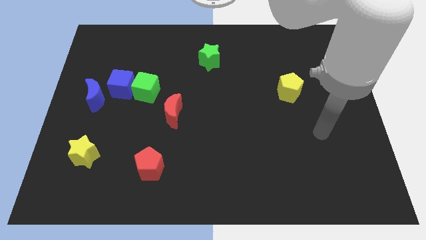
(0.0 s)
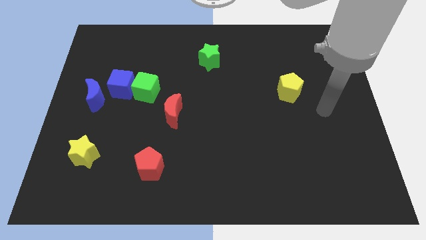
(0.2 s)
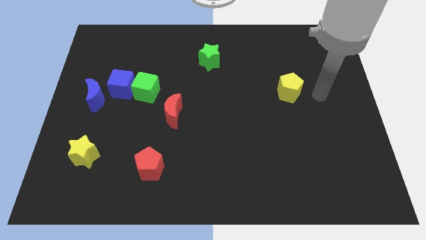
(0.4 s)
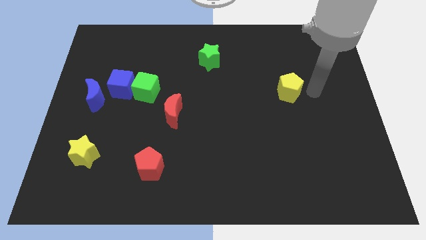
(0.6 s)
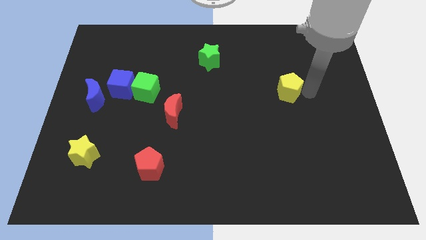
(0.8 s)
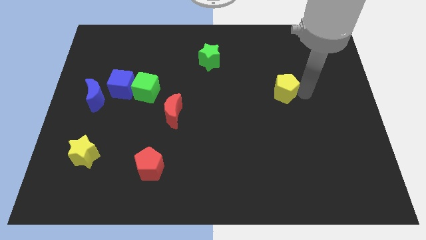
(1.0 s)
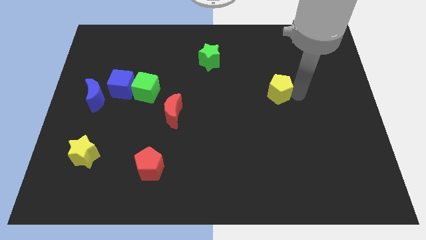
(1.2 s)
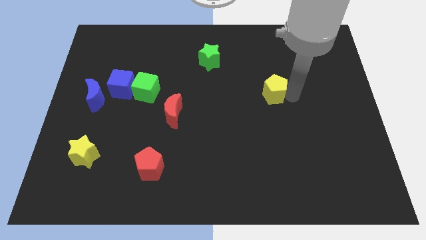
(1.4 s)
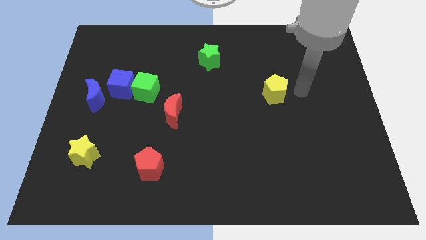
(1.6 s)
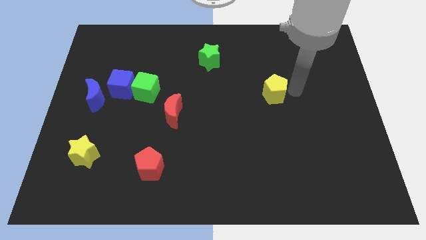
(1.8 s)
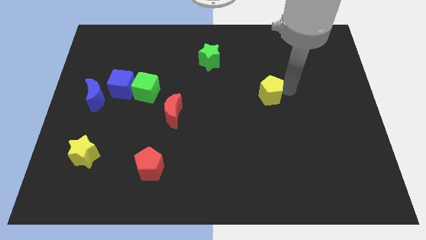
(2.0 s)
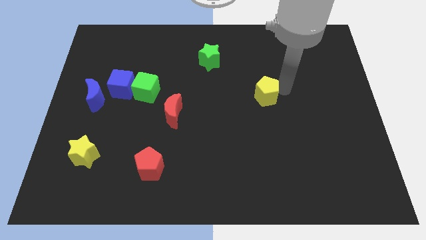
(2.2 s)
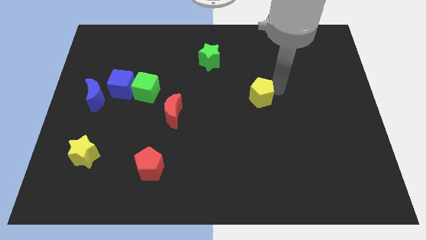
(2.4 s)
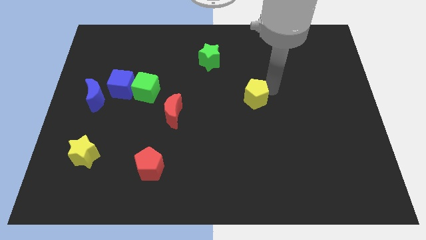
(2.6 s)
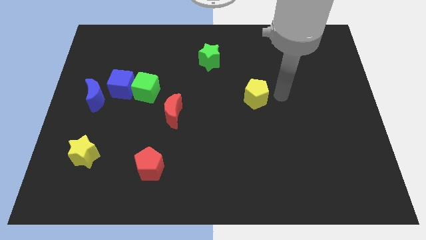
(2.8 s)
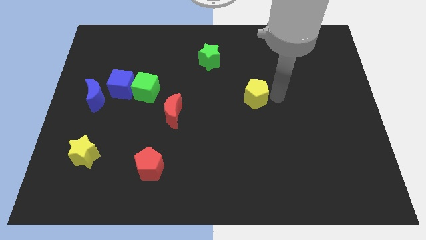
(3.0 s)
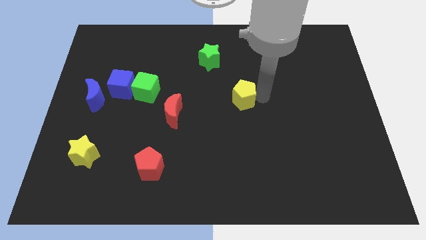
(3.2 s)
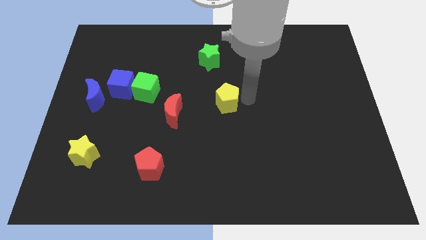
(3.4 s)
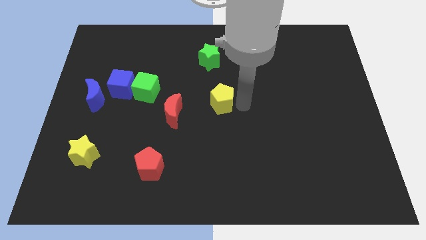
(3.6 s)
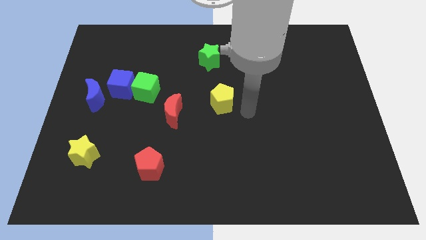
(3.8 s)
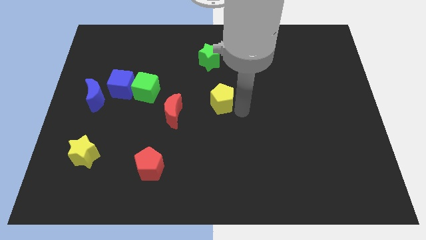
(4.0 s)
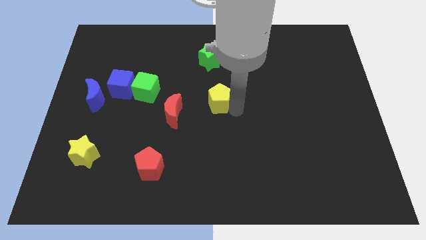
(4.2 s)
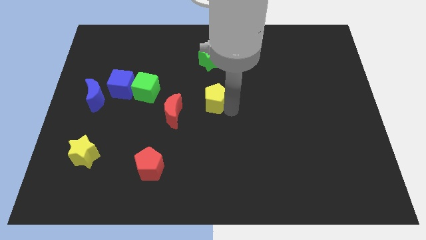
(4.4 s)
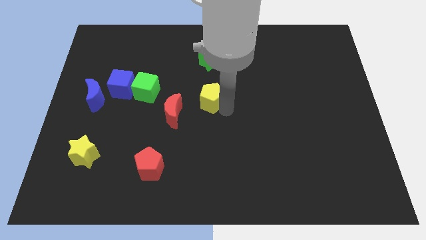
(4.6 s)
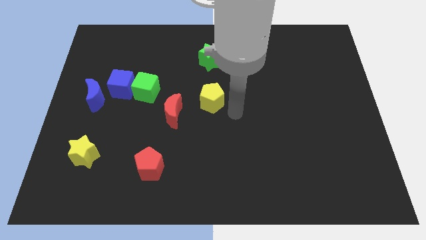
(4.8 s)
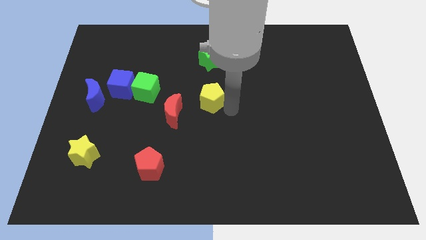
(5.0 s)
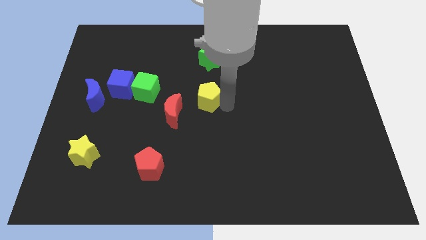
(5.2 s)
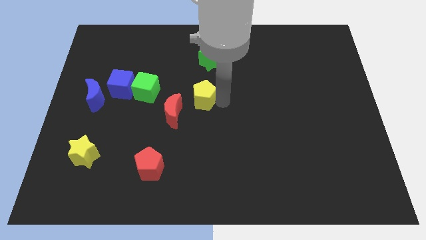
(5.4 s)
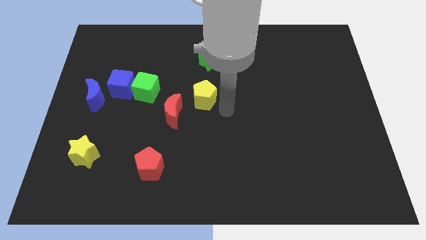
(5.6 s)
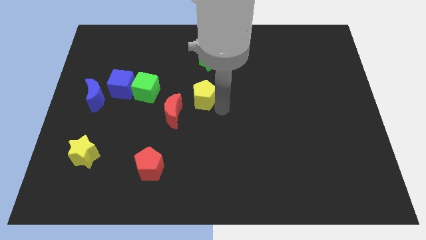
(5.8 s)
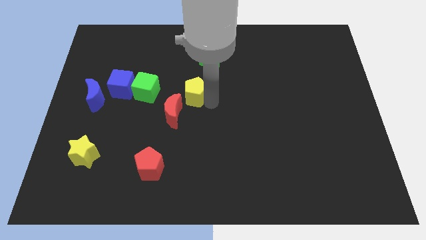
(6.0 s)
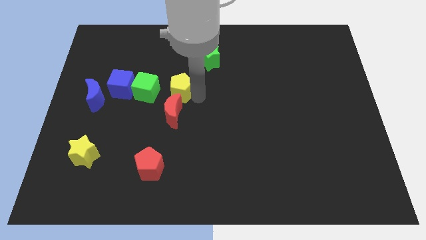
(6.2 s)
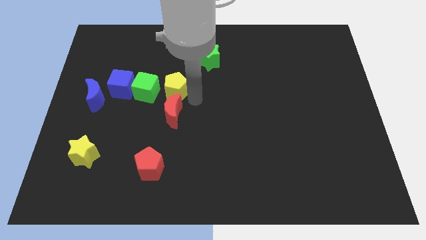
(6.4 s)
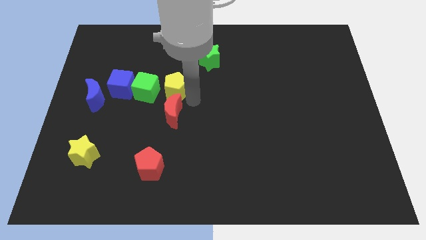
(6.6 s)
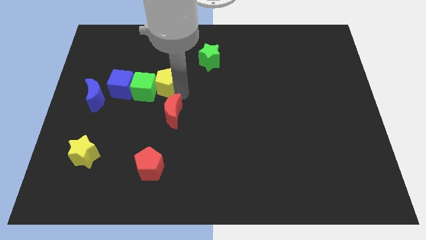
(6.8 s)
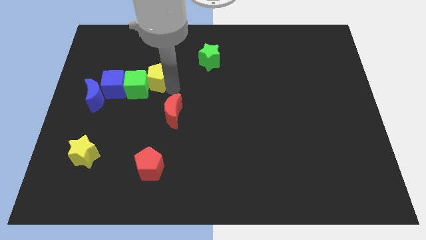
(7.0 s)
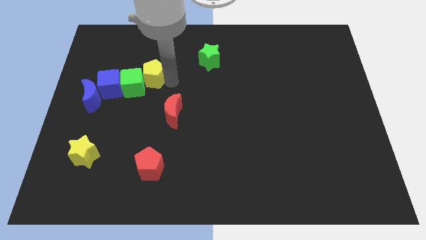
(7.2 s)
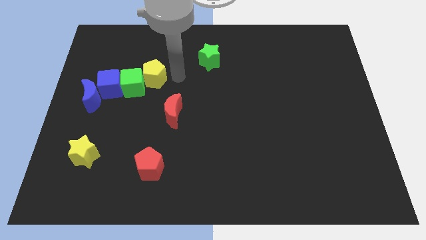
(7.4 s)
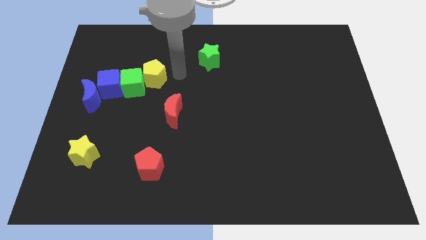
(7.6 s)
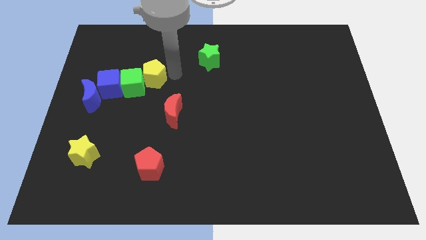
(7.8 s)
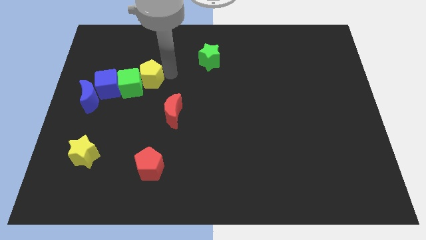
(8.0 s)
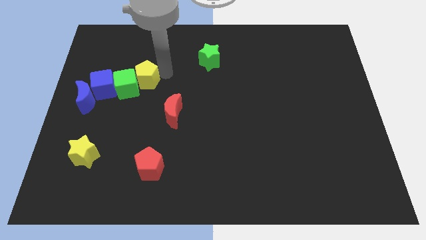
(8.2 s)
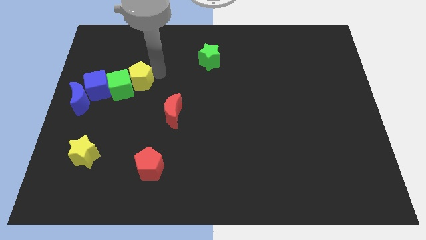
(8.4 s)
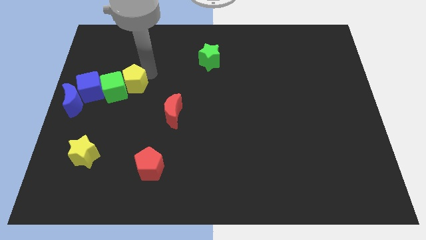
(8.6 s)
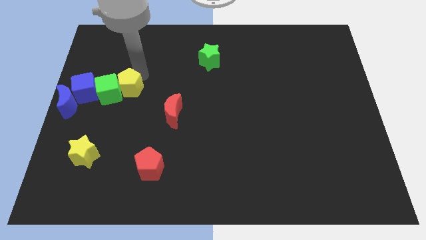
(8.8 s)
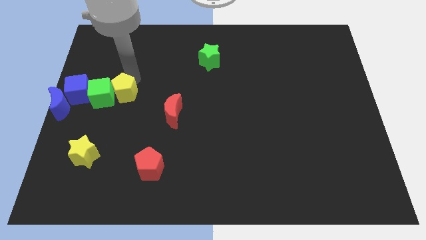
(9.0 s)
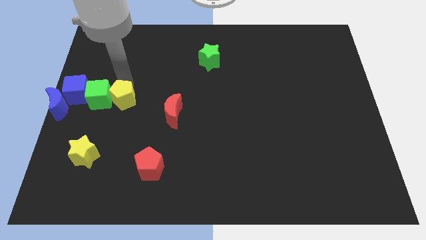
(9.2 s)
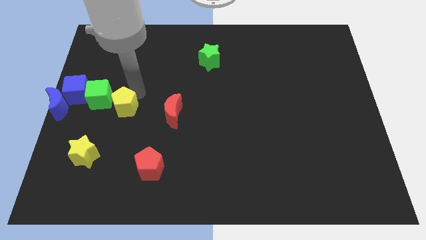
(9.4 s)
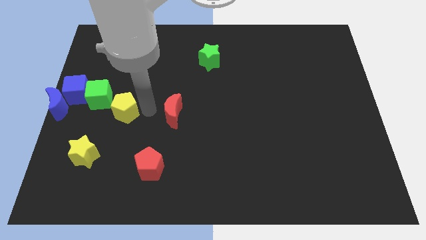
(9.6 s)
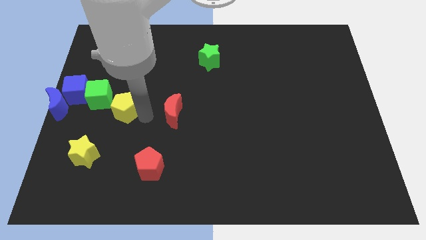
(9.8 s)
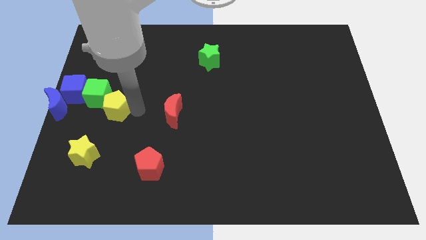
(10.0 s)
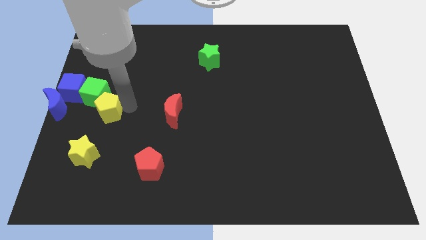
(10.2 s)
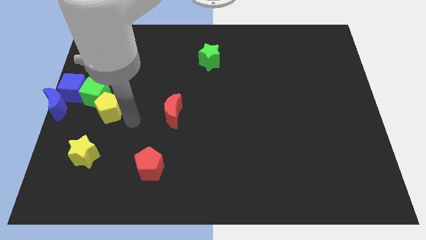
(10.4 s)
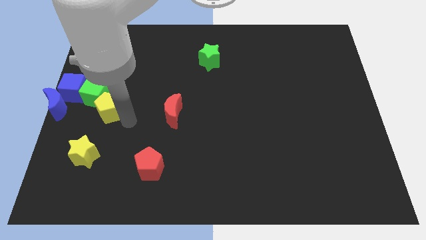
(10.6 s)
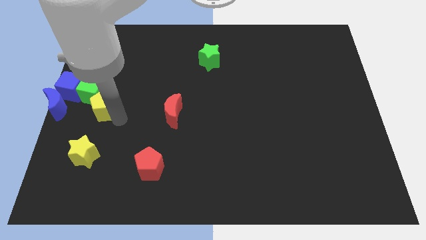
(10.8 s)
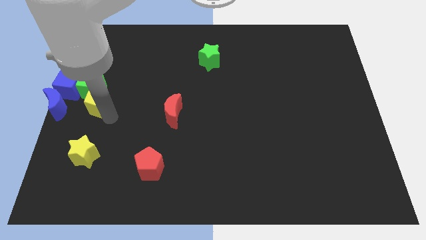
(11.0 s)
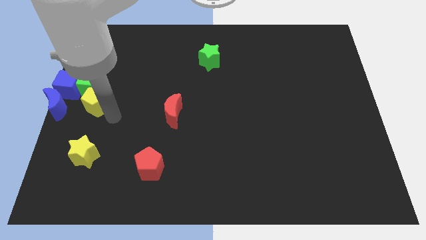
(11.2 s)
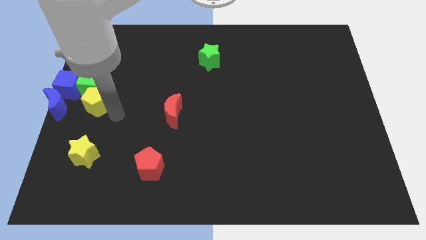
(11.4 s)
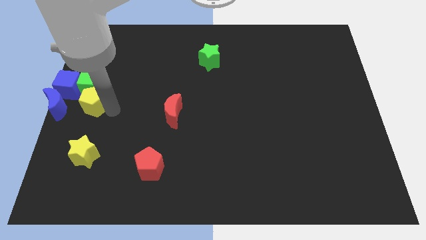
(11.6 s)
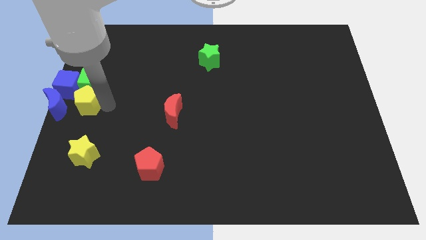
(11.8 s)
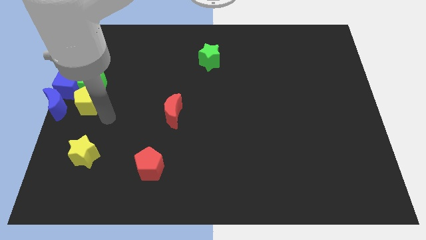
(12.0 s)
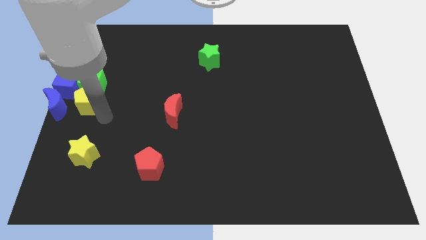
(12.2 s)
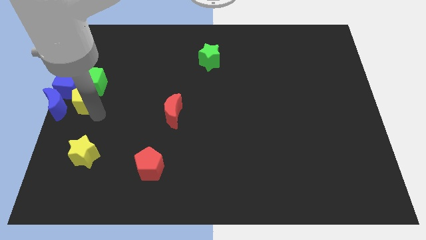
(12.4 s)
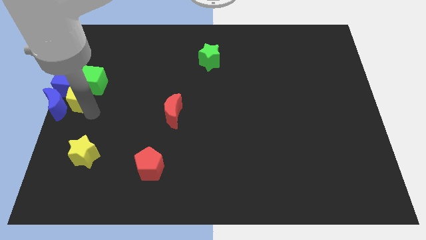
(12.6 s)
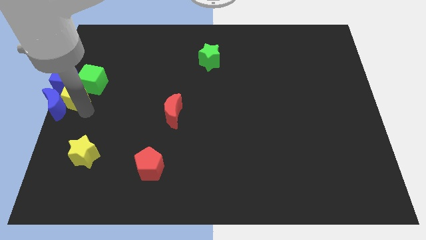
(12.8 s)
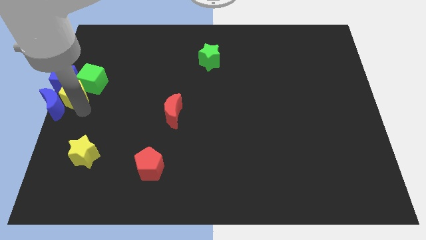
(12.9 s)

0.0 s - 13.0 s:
put the yellow pentagon to the blue cube

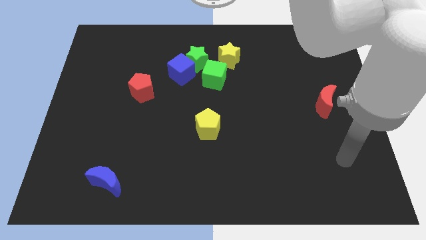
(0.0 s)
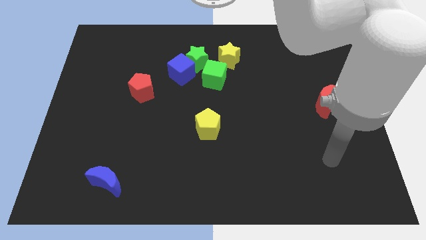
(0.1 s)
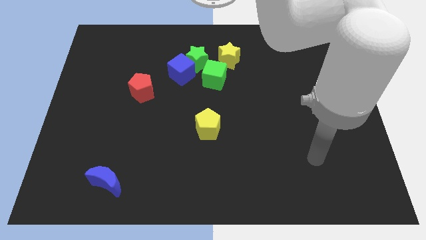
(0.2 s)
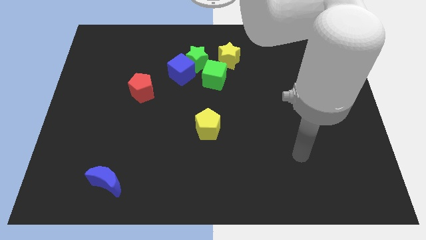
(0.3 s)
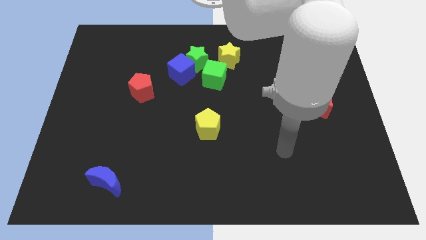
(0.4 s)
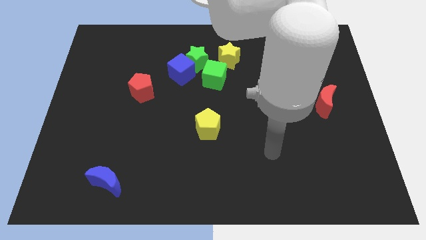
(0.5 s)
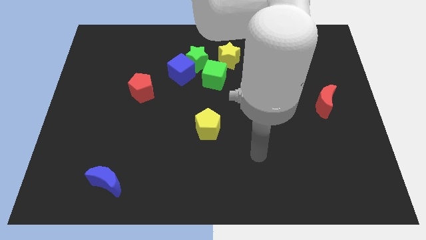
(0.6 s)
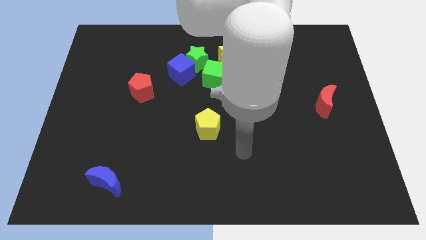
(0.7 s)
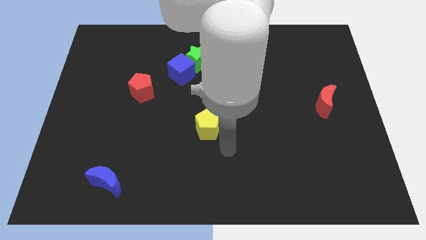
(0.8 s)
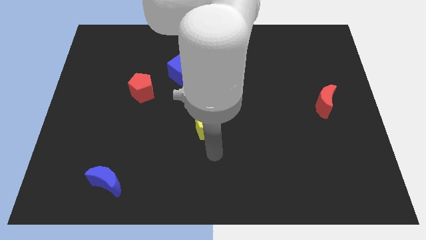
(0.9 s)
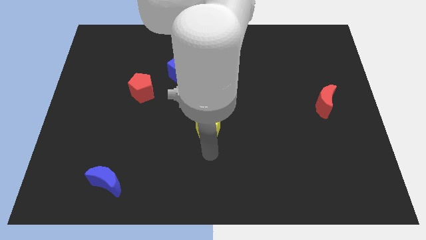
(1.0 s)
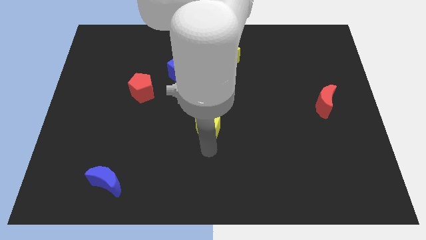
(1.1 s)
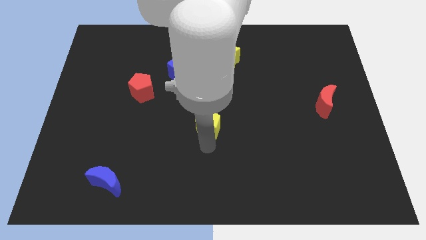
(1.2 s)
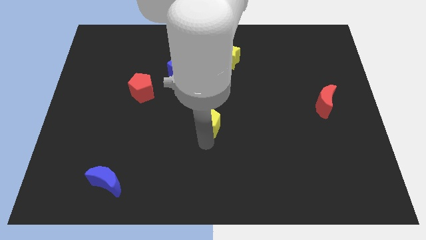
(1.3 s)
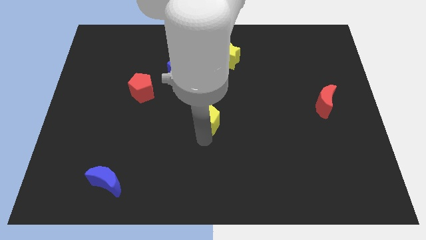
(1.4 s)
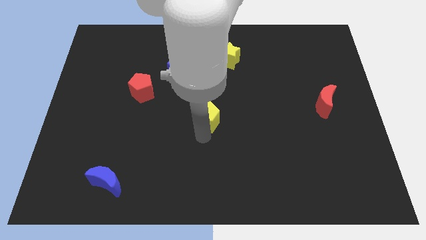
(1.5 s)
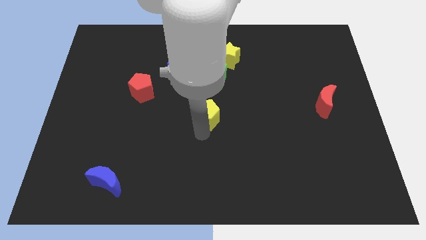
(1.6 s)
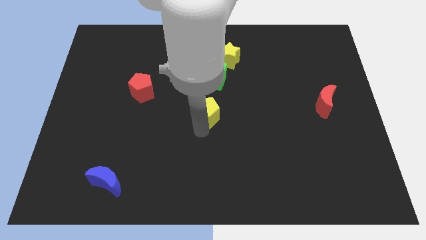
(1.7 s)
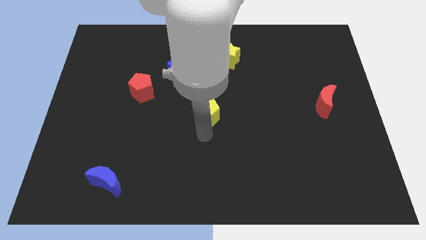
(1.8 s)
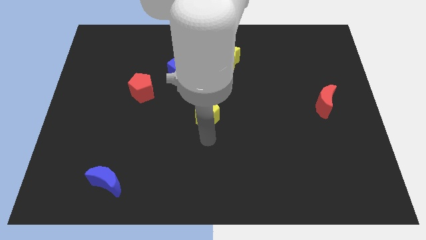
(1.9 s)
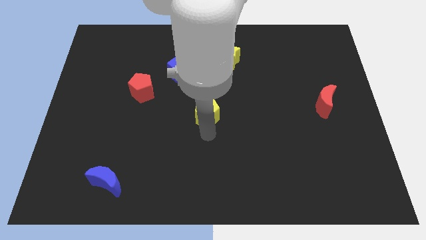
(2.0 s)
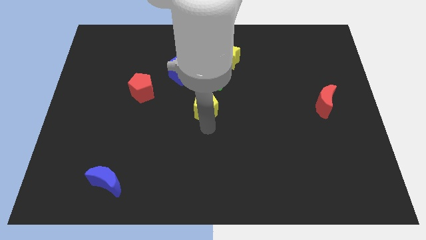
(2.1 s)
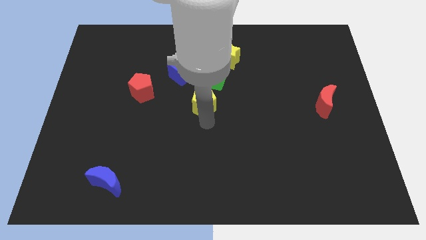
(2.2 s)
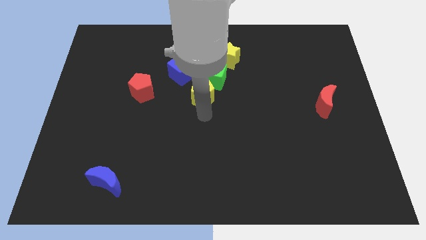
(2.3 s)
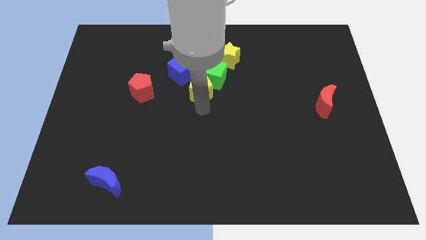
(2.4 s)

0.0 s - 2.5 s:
put the yellow pentagon close to the green cube
